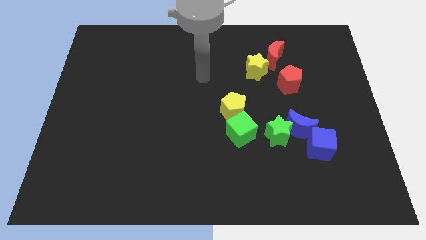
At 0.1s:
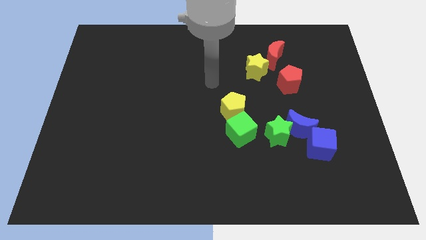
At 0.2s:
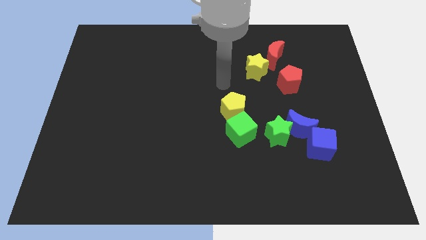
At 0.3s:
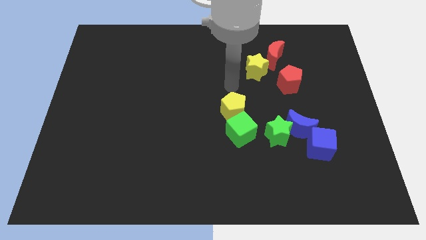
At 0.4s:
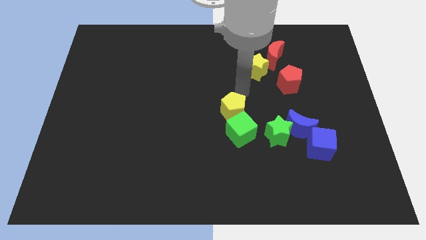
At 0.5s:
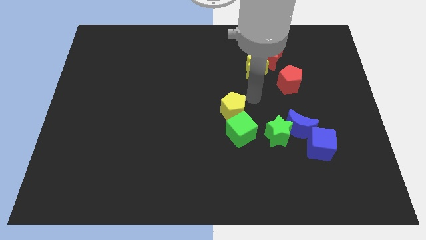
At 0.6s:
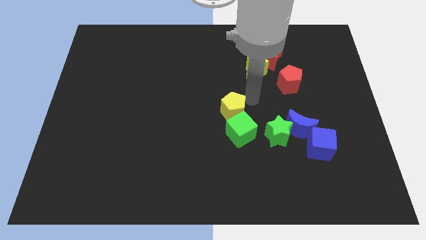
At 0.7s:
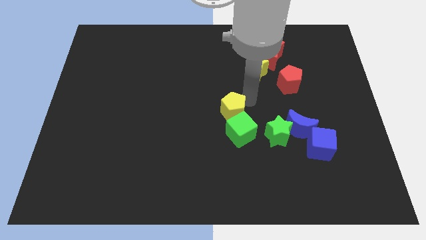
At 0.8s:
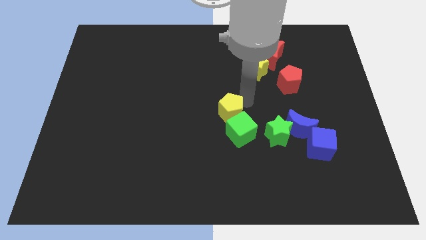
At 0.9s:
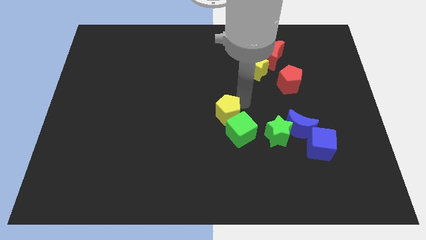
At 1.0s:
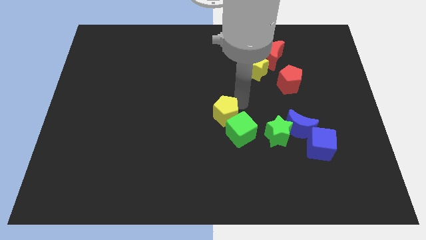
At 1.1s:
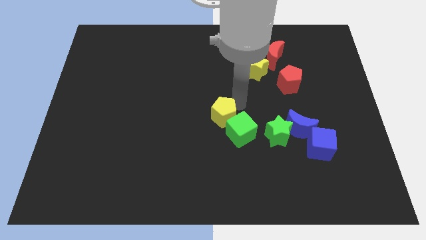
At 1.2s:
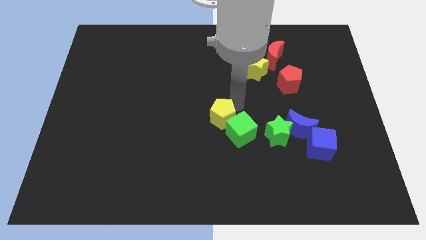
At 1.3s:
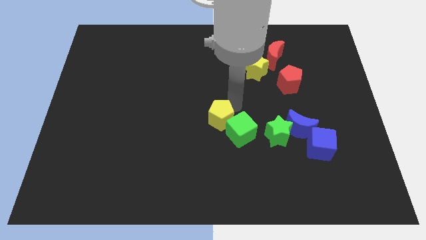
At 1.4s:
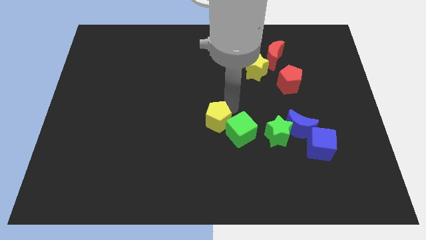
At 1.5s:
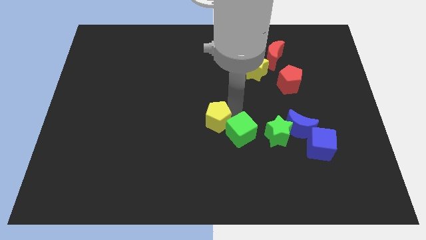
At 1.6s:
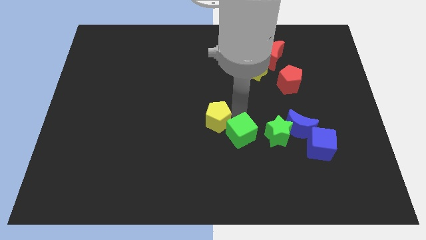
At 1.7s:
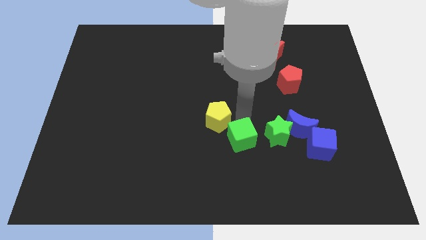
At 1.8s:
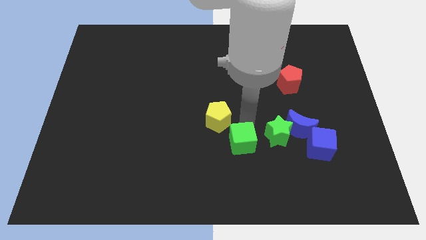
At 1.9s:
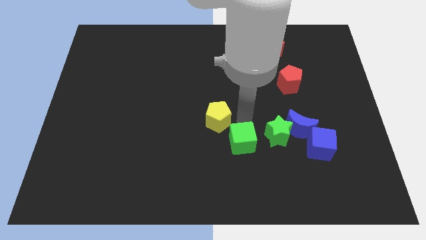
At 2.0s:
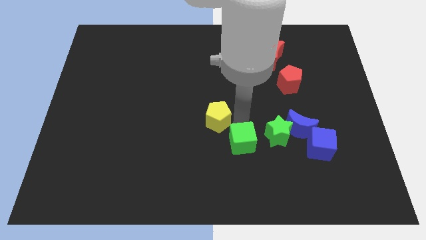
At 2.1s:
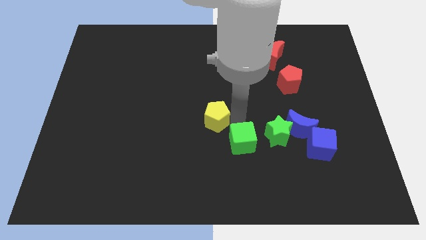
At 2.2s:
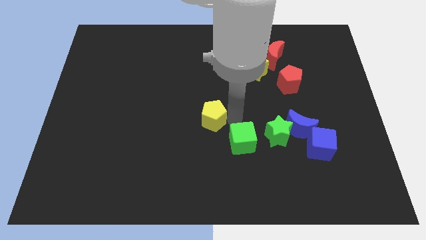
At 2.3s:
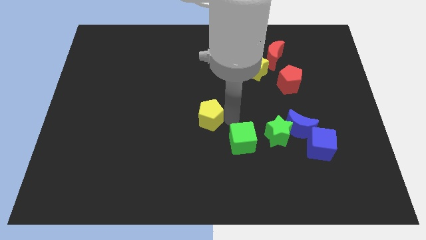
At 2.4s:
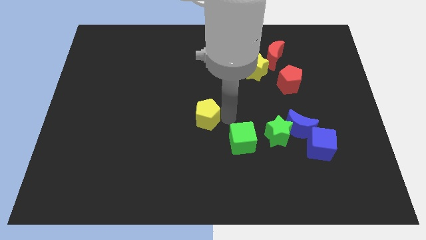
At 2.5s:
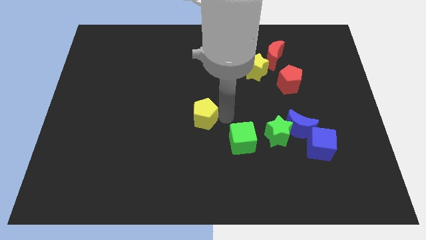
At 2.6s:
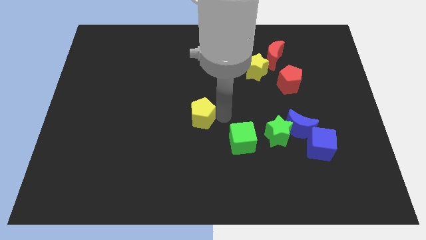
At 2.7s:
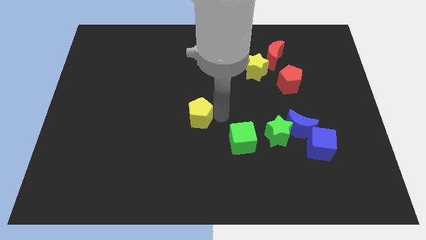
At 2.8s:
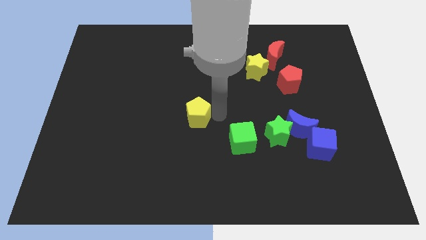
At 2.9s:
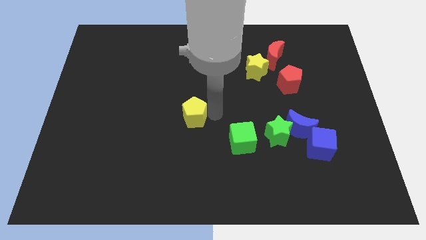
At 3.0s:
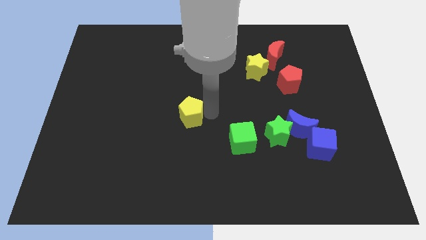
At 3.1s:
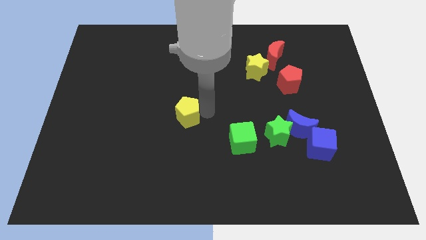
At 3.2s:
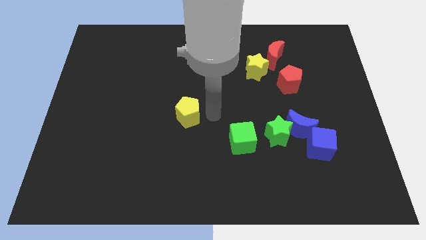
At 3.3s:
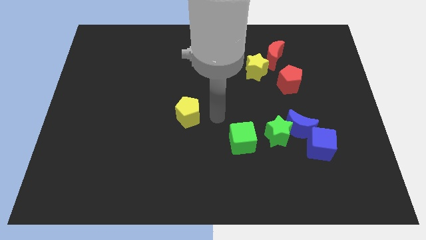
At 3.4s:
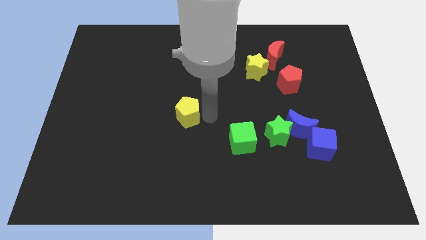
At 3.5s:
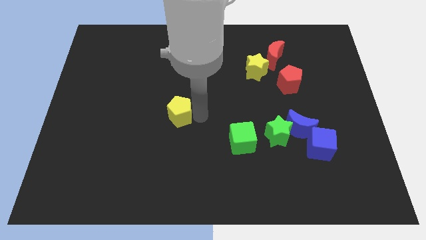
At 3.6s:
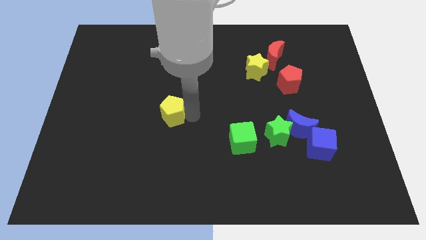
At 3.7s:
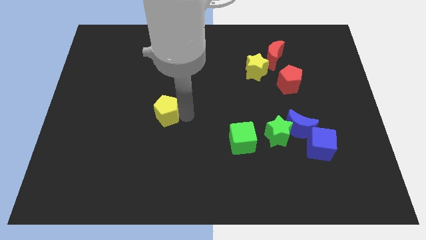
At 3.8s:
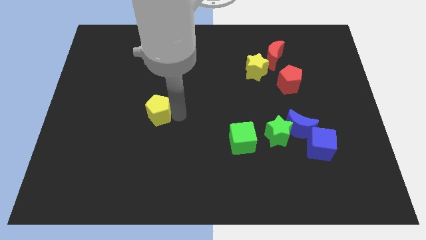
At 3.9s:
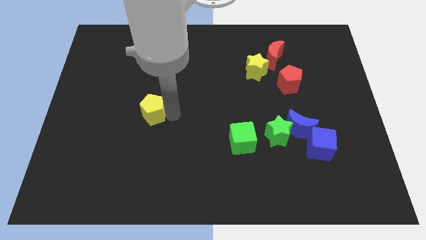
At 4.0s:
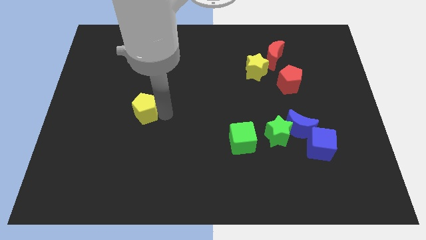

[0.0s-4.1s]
slide the yellow pentagon to the left

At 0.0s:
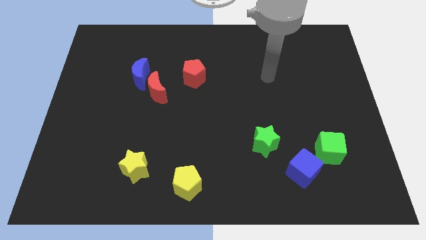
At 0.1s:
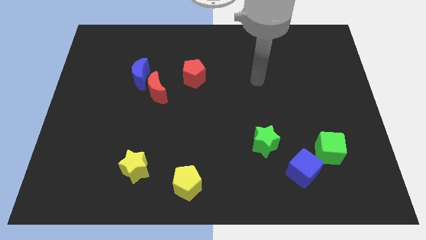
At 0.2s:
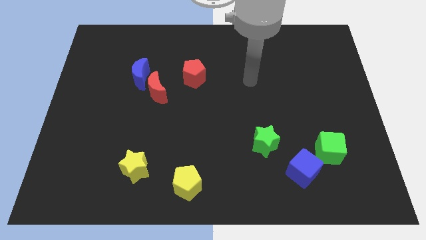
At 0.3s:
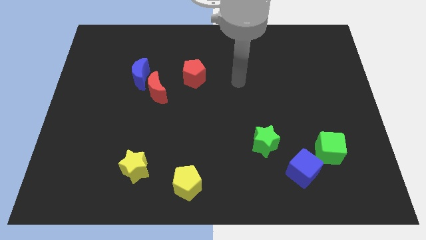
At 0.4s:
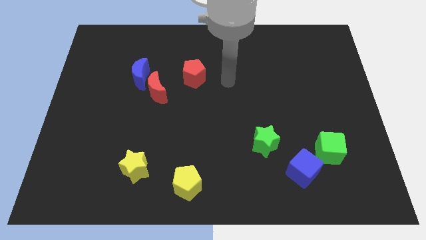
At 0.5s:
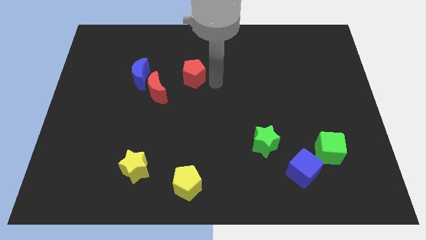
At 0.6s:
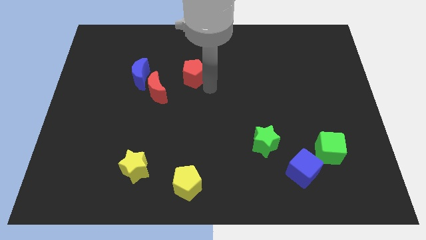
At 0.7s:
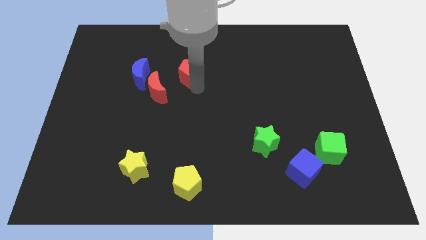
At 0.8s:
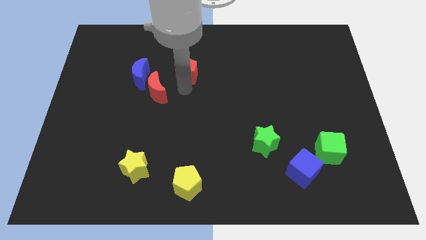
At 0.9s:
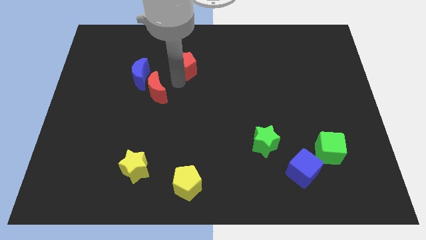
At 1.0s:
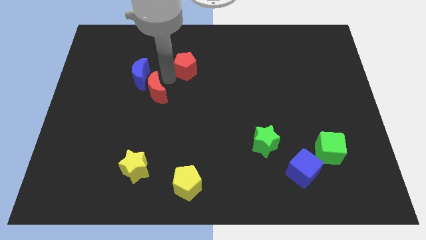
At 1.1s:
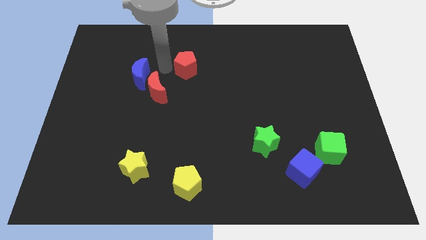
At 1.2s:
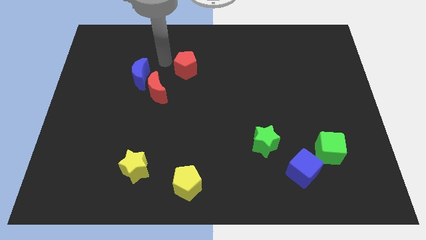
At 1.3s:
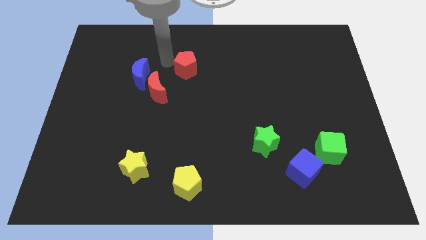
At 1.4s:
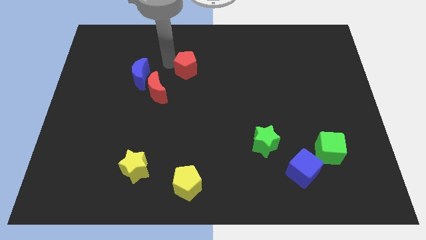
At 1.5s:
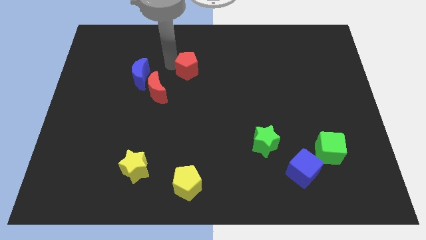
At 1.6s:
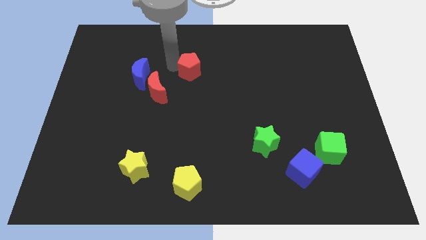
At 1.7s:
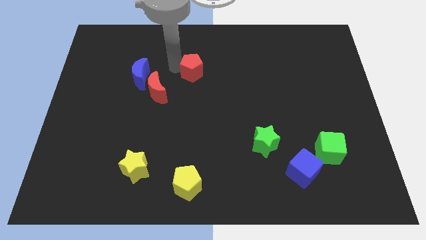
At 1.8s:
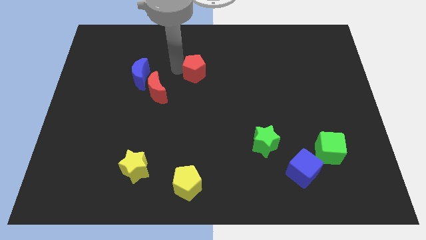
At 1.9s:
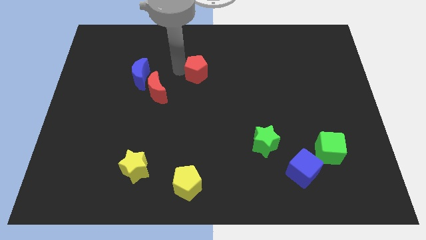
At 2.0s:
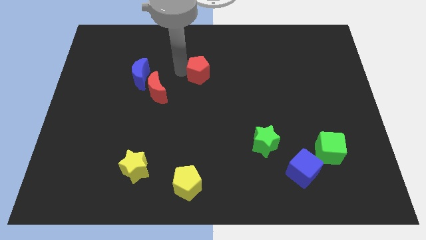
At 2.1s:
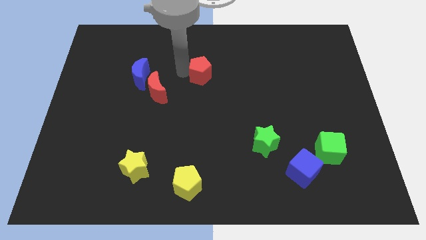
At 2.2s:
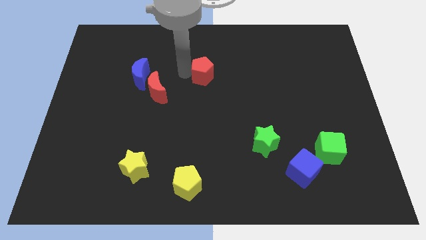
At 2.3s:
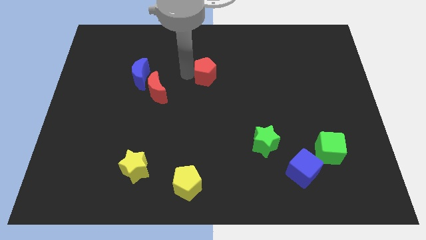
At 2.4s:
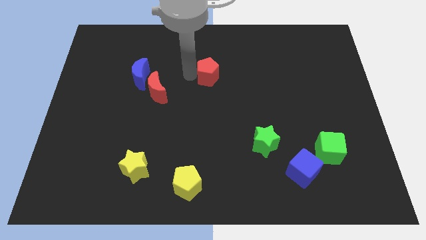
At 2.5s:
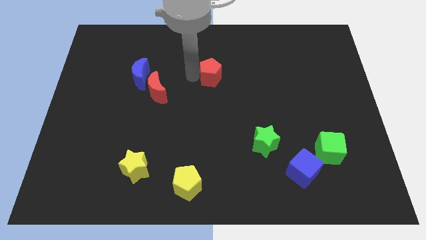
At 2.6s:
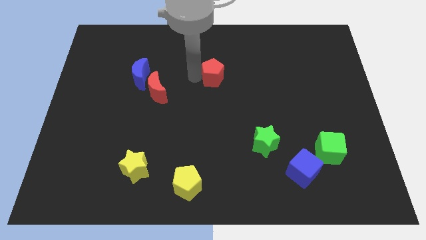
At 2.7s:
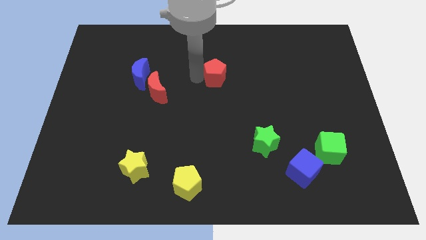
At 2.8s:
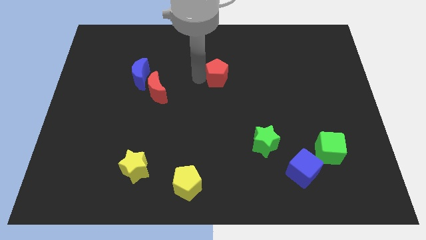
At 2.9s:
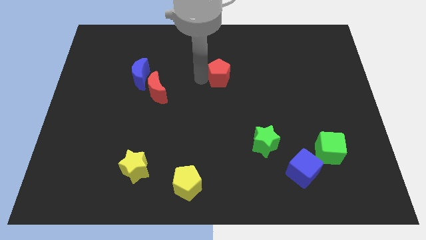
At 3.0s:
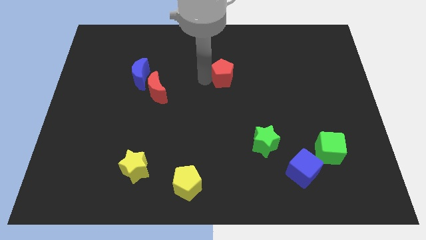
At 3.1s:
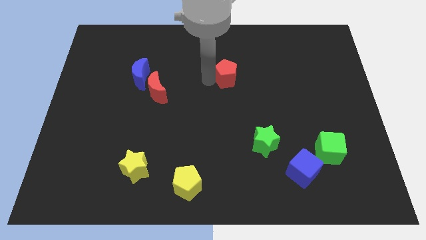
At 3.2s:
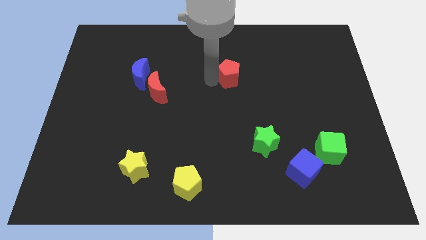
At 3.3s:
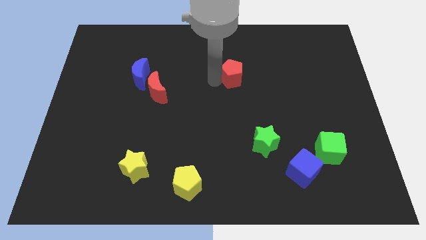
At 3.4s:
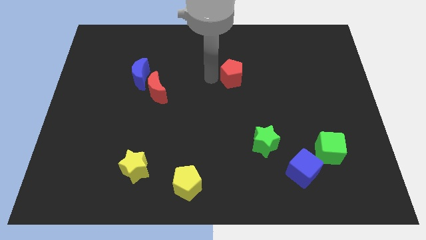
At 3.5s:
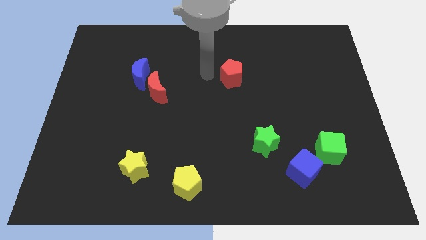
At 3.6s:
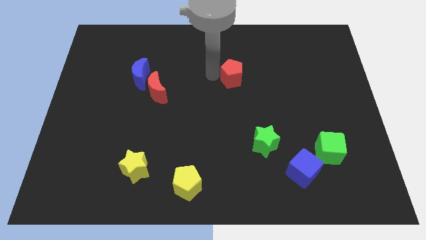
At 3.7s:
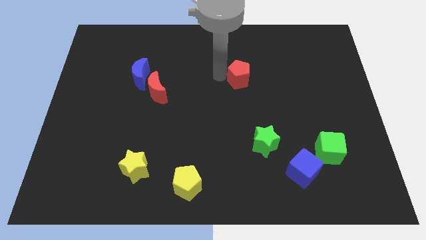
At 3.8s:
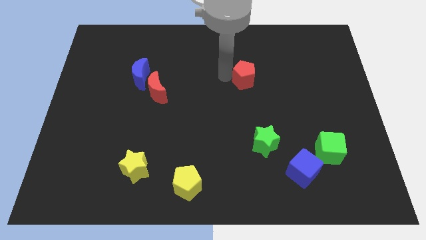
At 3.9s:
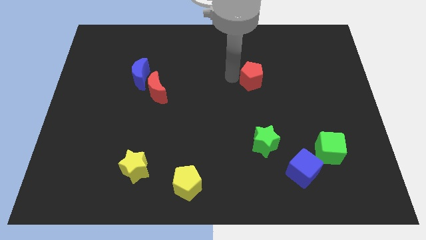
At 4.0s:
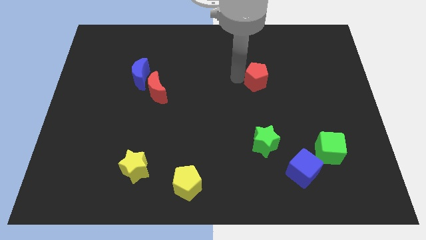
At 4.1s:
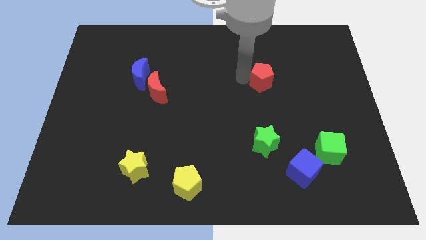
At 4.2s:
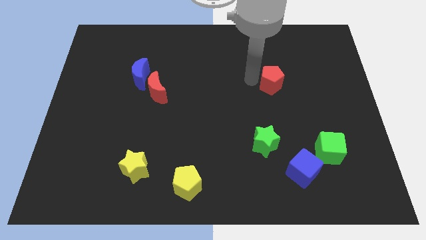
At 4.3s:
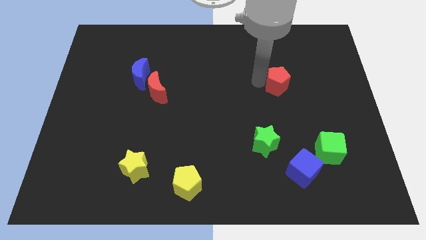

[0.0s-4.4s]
push the red pentagon to the right
